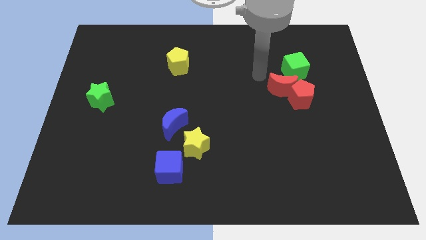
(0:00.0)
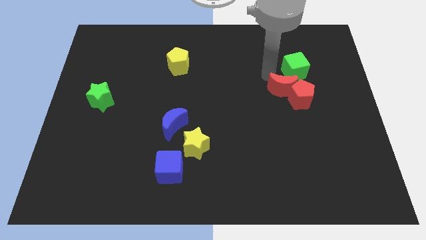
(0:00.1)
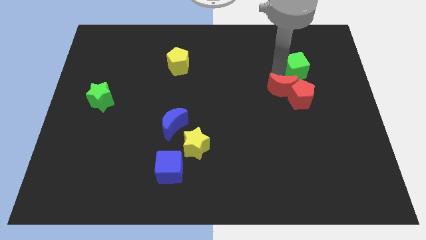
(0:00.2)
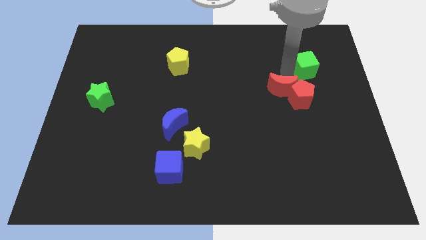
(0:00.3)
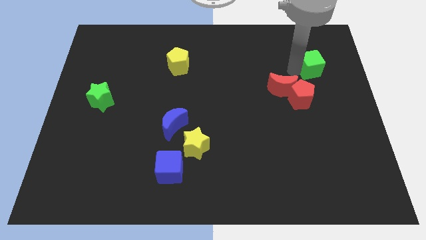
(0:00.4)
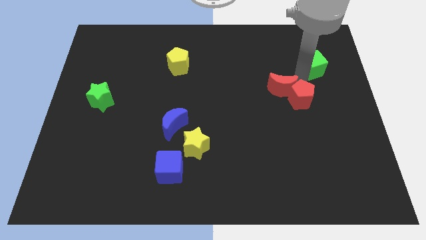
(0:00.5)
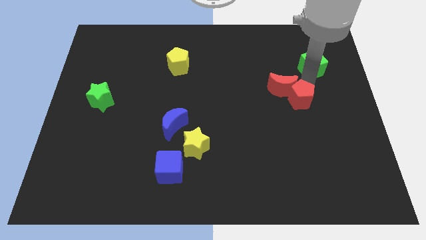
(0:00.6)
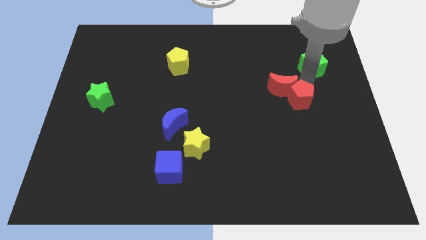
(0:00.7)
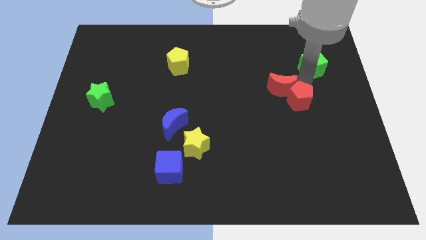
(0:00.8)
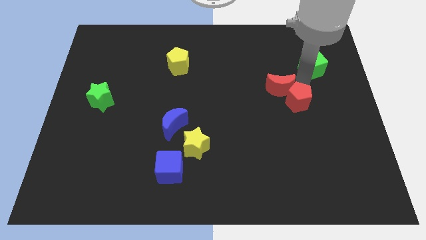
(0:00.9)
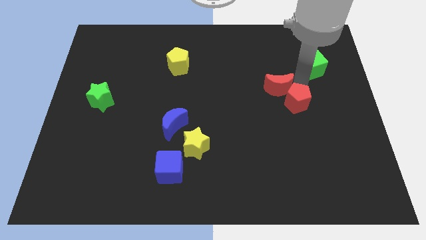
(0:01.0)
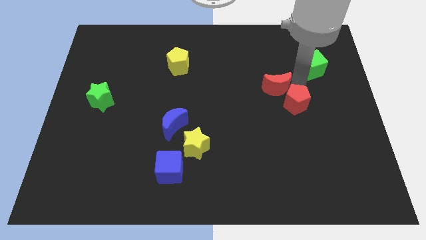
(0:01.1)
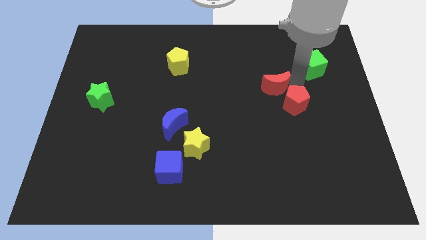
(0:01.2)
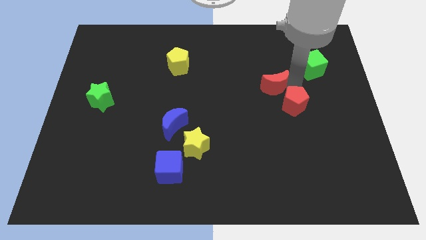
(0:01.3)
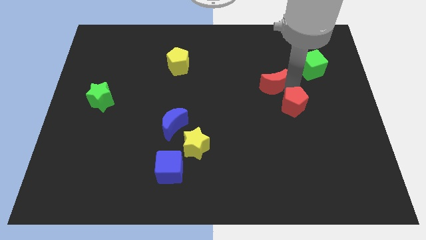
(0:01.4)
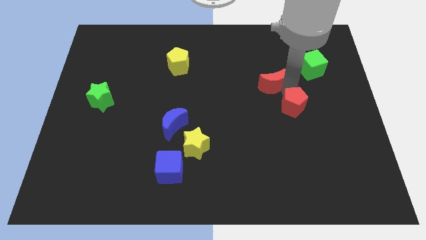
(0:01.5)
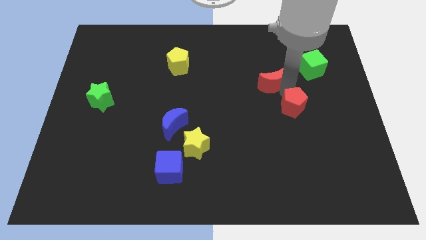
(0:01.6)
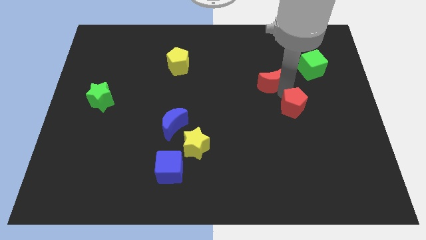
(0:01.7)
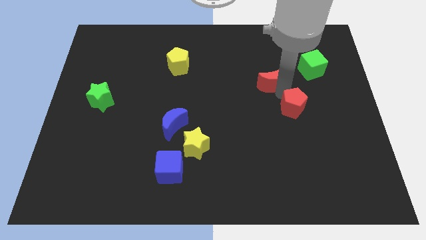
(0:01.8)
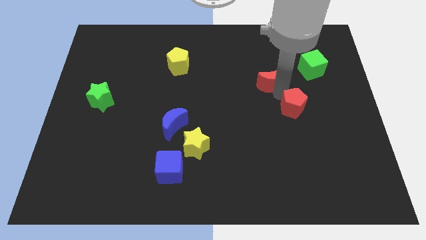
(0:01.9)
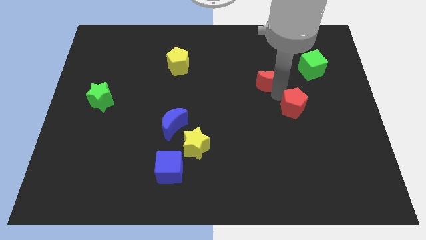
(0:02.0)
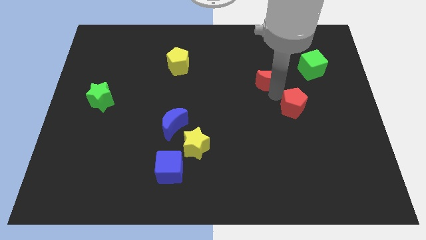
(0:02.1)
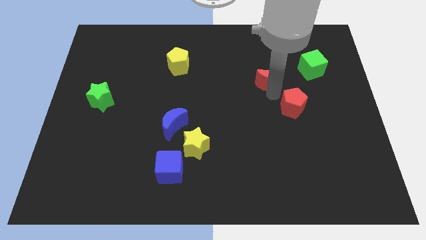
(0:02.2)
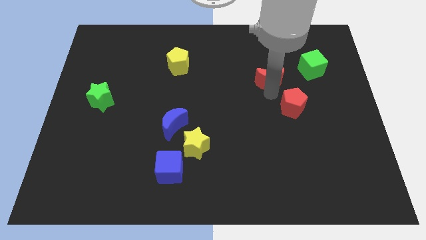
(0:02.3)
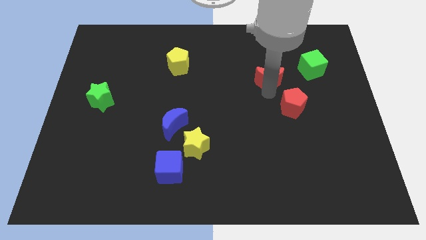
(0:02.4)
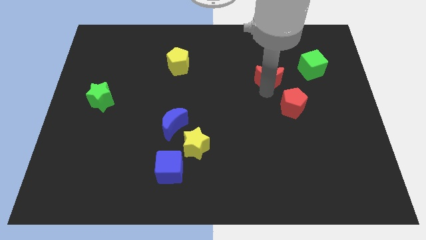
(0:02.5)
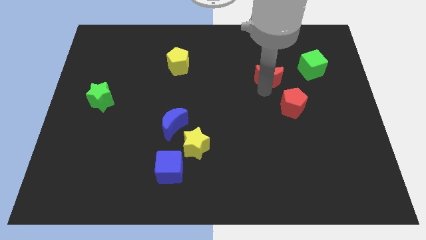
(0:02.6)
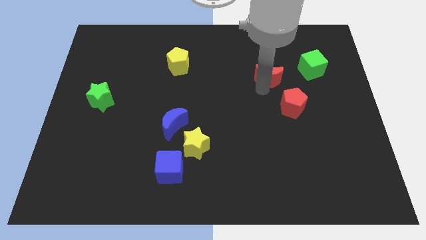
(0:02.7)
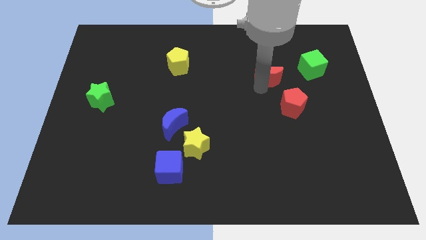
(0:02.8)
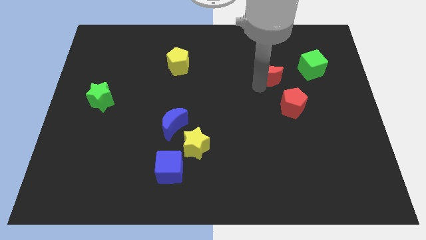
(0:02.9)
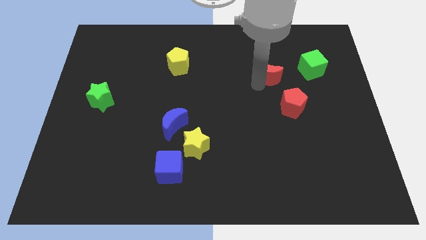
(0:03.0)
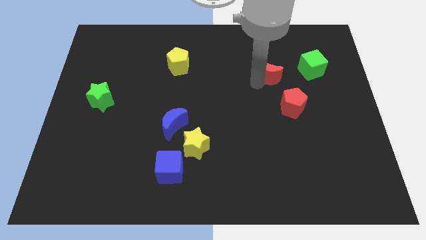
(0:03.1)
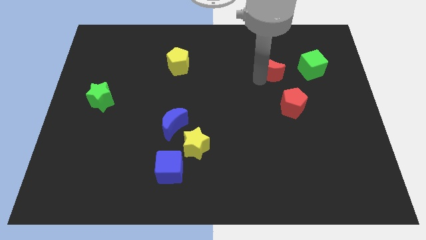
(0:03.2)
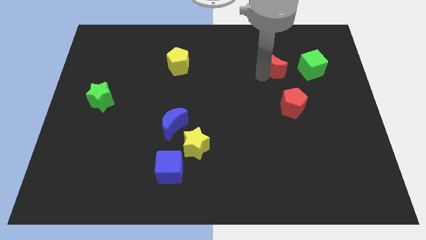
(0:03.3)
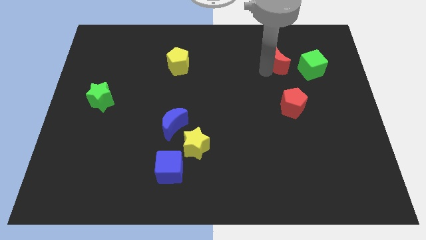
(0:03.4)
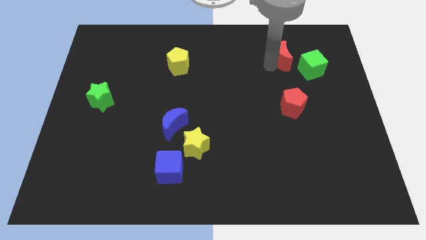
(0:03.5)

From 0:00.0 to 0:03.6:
separate the red moon from the red pentagon and green cube

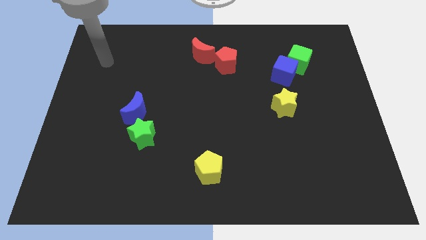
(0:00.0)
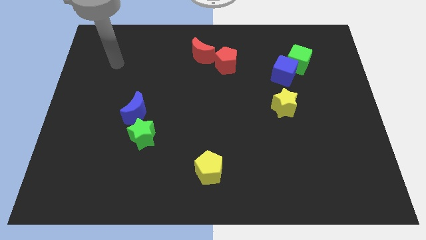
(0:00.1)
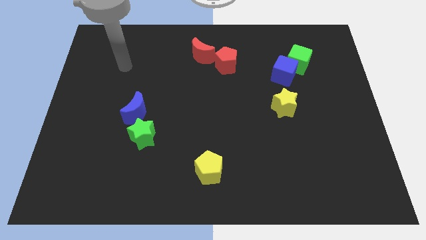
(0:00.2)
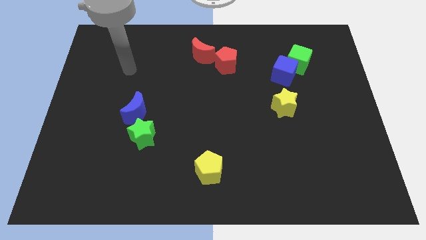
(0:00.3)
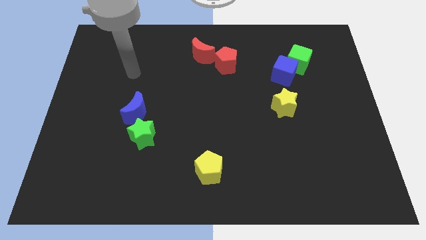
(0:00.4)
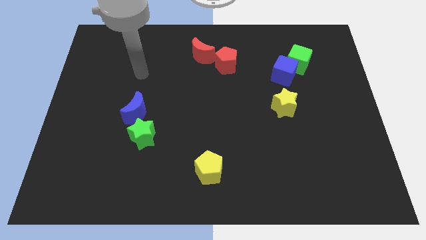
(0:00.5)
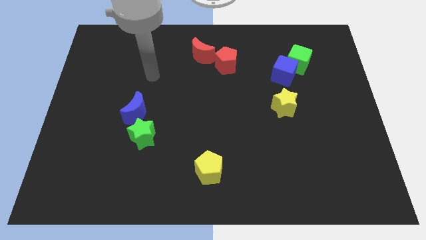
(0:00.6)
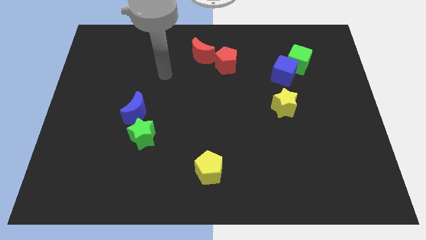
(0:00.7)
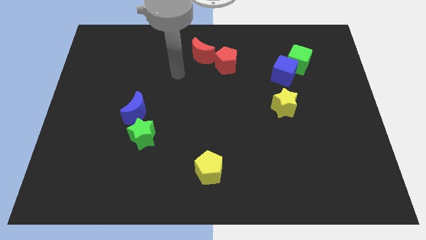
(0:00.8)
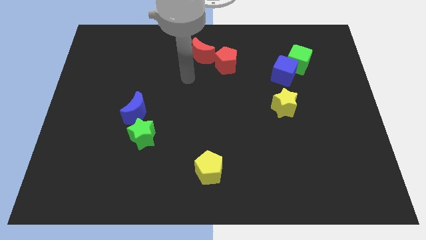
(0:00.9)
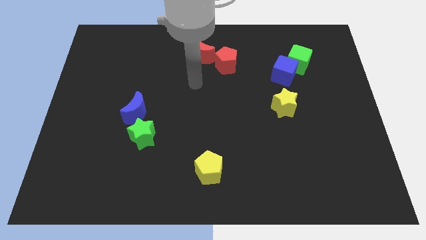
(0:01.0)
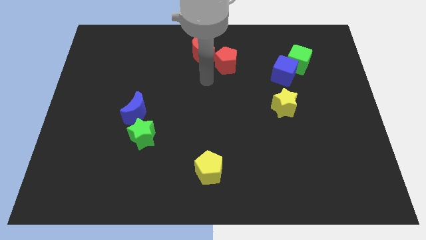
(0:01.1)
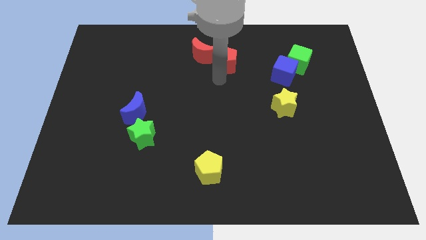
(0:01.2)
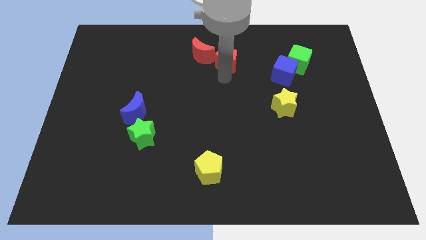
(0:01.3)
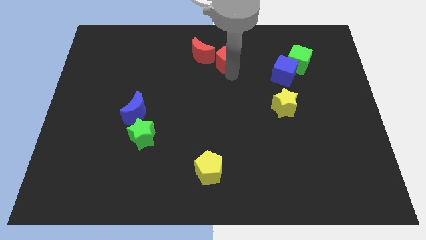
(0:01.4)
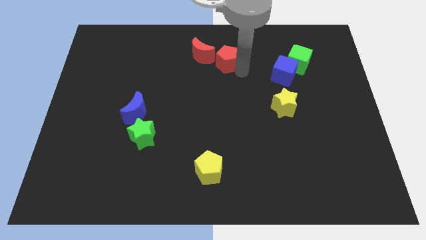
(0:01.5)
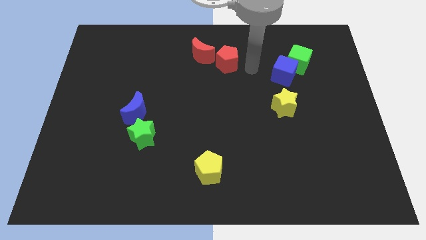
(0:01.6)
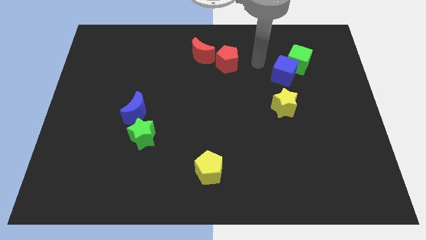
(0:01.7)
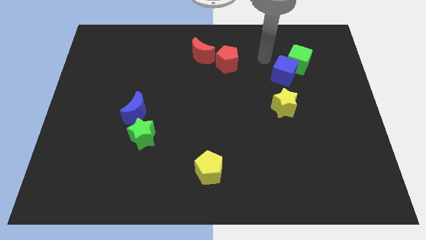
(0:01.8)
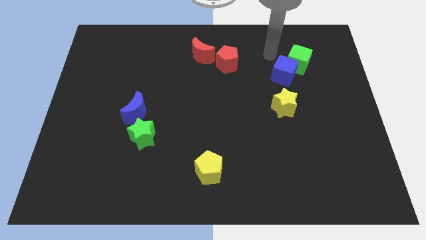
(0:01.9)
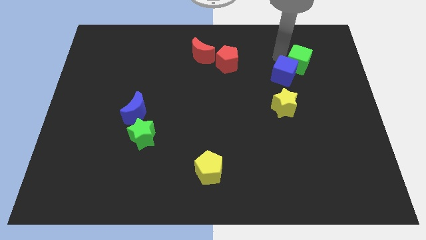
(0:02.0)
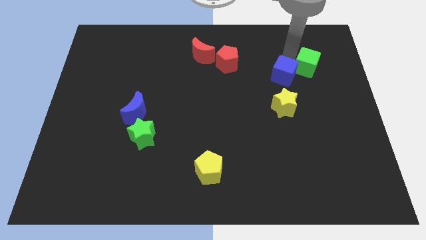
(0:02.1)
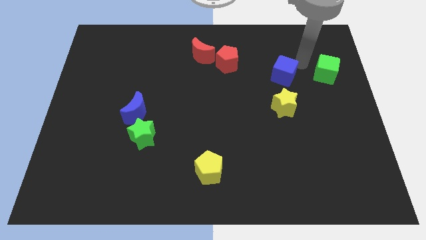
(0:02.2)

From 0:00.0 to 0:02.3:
move the blue cube away from the green cube

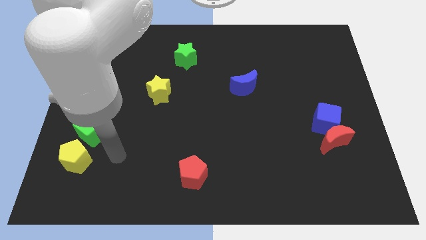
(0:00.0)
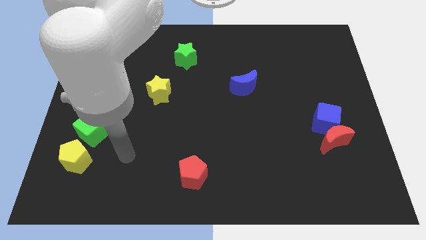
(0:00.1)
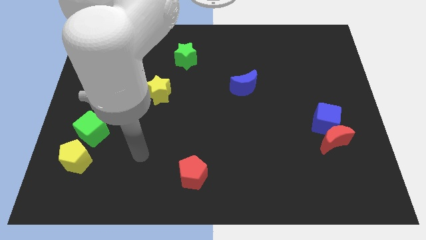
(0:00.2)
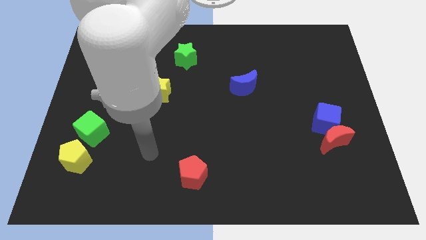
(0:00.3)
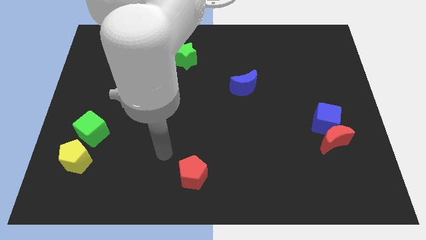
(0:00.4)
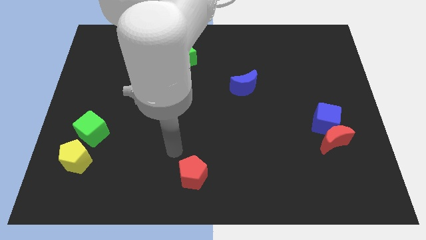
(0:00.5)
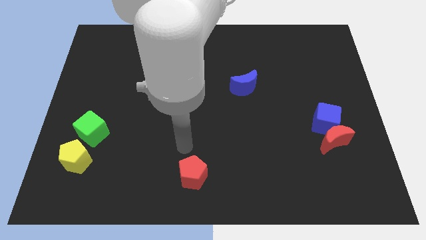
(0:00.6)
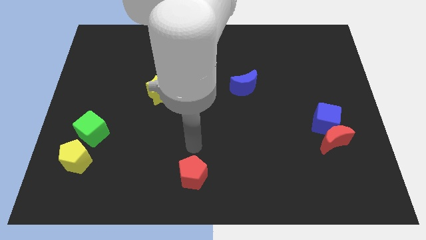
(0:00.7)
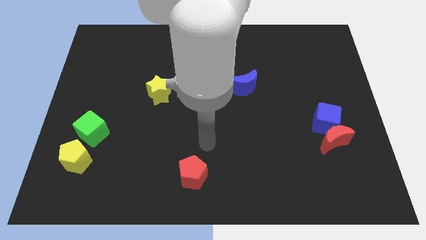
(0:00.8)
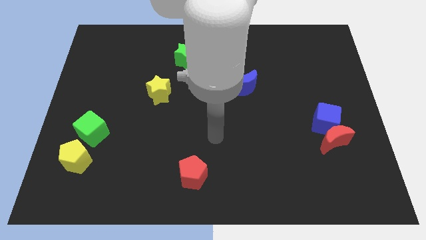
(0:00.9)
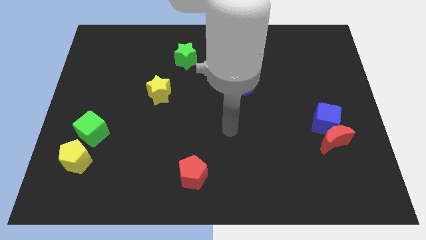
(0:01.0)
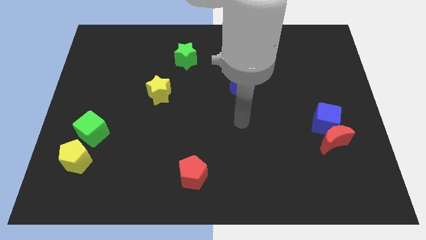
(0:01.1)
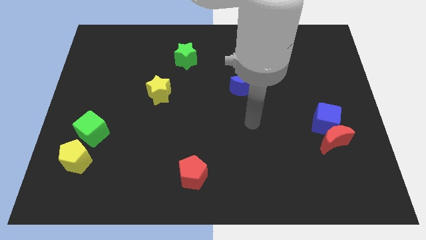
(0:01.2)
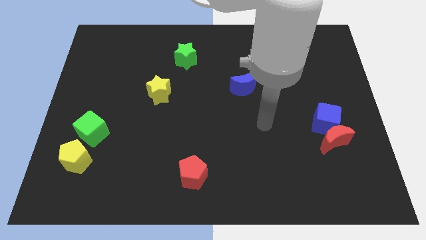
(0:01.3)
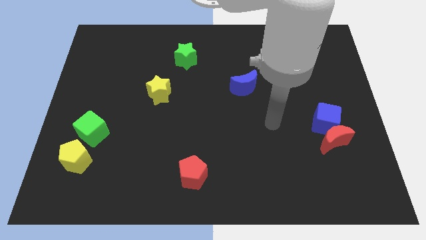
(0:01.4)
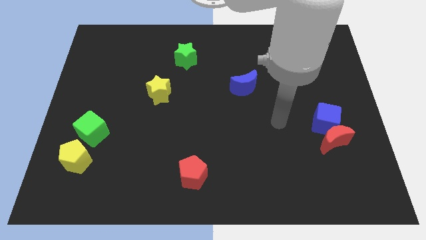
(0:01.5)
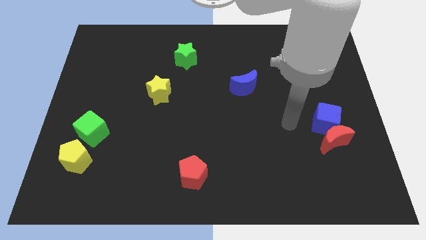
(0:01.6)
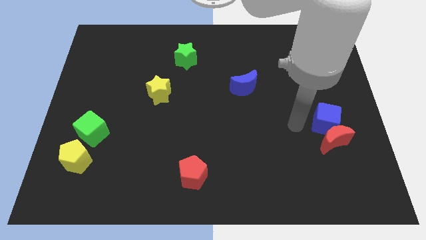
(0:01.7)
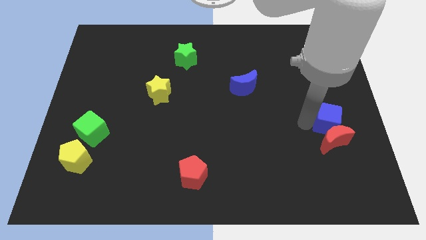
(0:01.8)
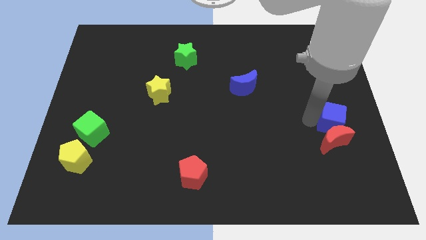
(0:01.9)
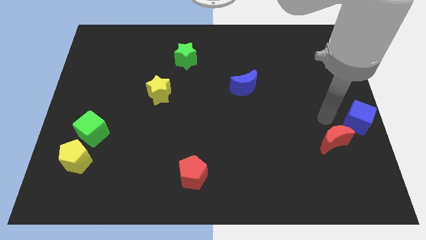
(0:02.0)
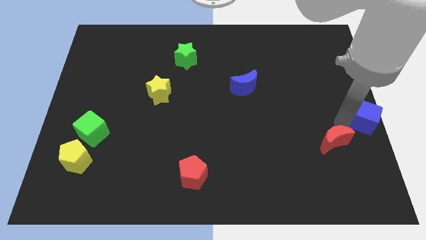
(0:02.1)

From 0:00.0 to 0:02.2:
pull the red moon apart from the blue cube

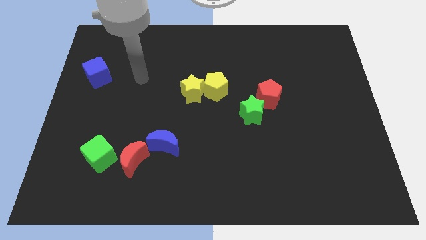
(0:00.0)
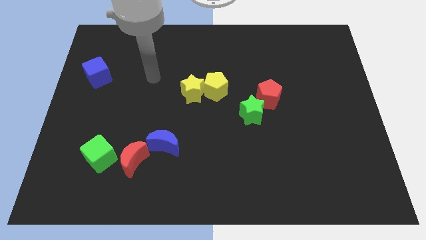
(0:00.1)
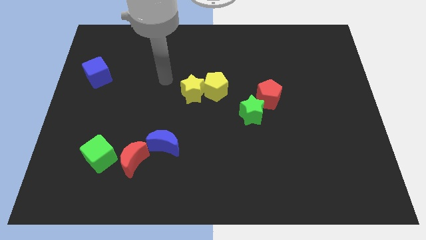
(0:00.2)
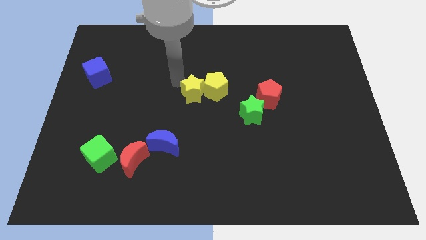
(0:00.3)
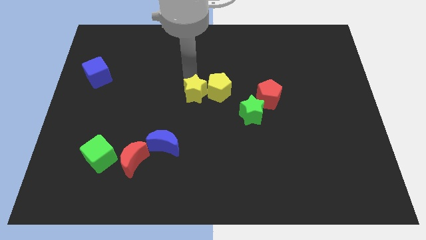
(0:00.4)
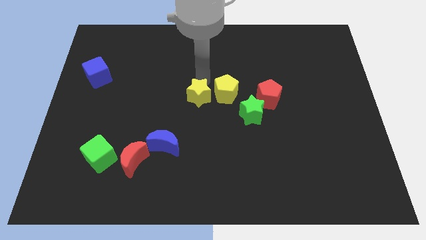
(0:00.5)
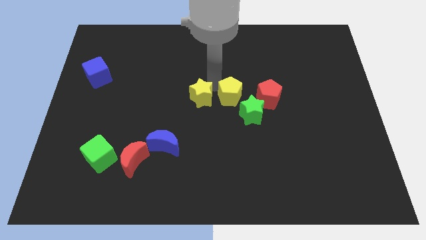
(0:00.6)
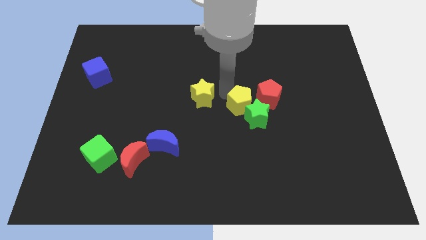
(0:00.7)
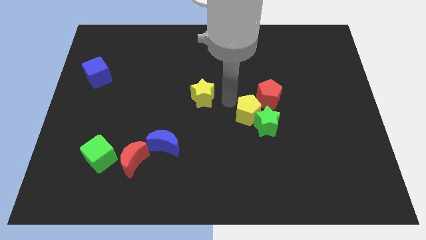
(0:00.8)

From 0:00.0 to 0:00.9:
move the yellow star away from the yellow pentagon

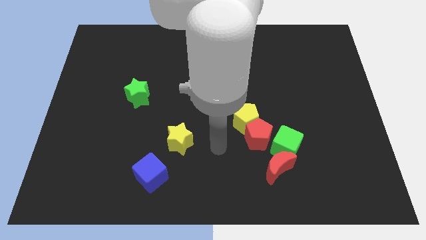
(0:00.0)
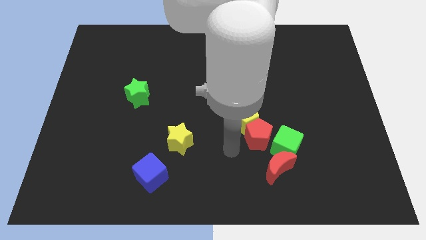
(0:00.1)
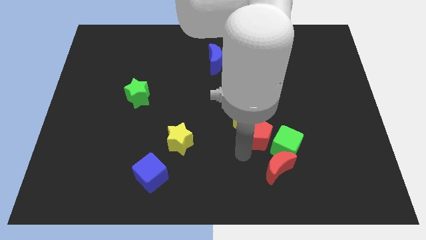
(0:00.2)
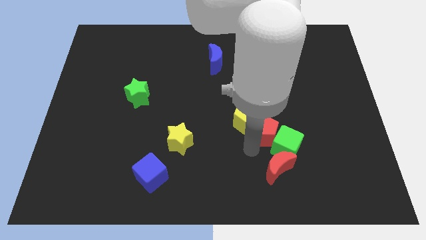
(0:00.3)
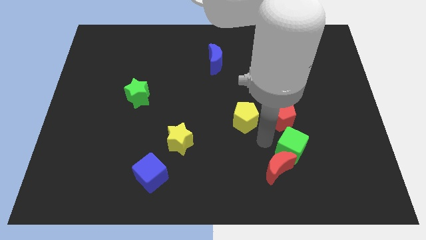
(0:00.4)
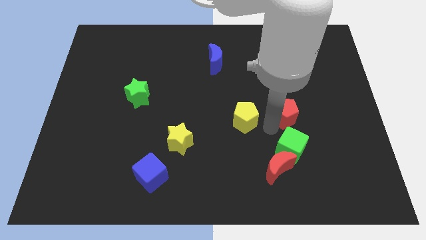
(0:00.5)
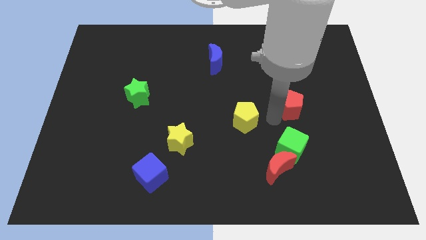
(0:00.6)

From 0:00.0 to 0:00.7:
move the yellow pentagon away from the red pentagon
